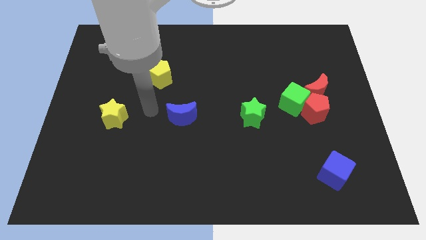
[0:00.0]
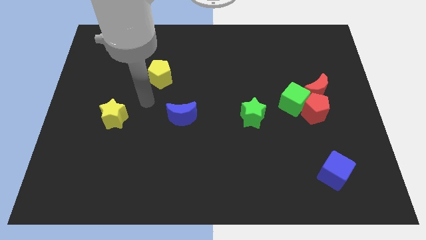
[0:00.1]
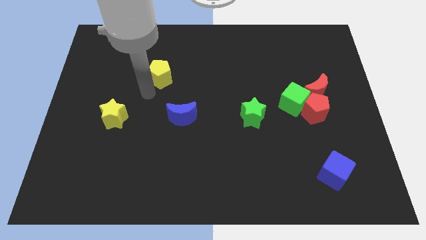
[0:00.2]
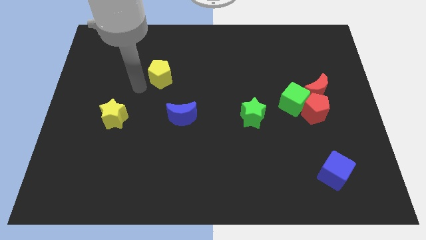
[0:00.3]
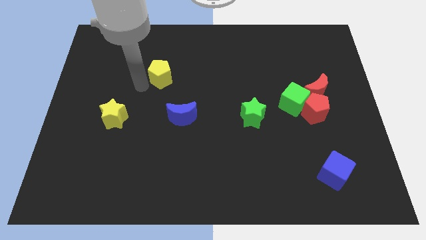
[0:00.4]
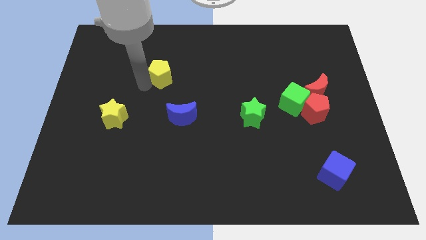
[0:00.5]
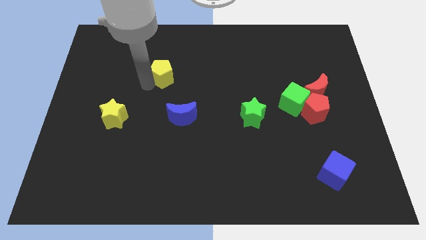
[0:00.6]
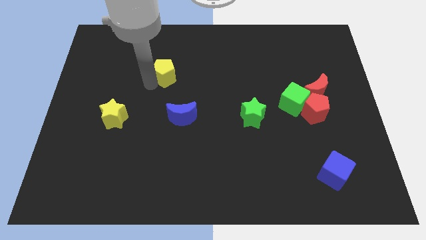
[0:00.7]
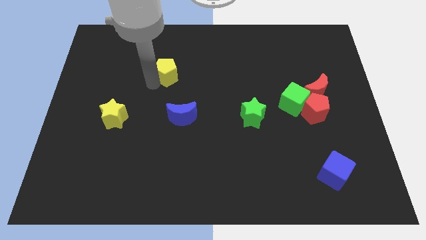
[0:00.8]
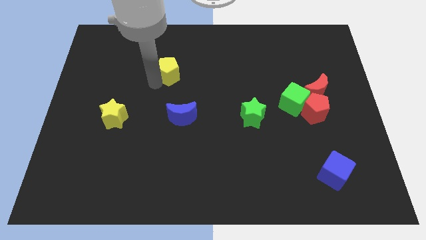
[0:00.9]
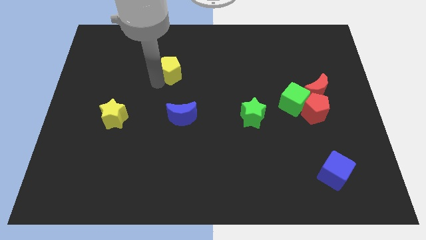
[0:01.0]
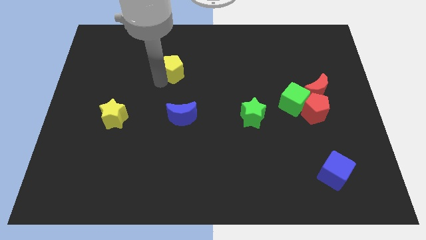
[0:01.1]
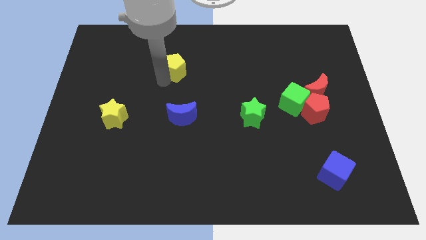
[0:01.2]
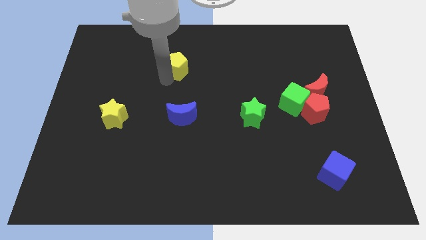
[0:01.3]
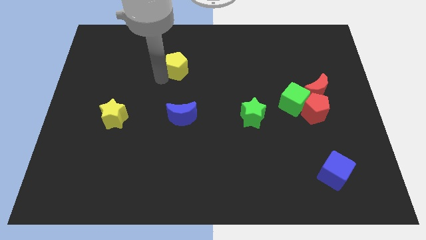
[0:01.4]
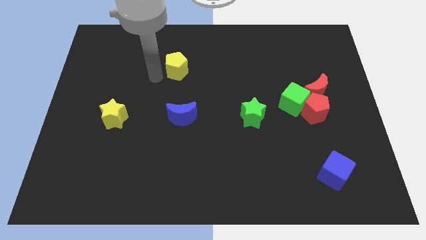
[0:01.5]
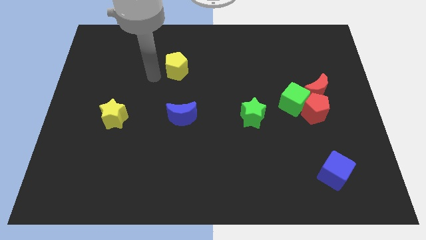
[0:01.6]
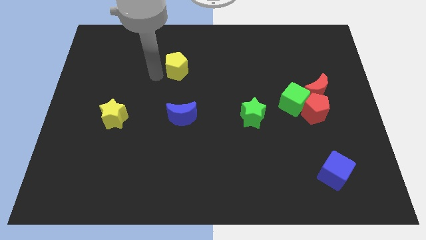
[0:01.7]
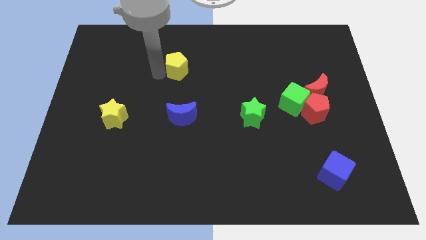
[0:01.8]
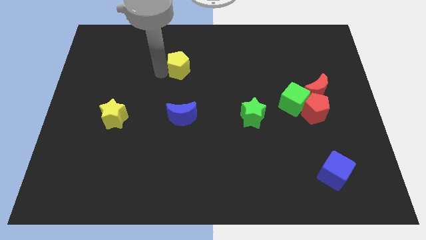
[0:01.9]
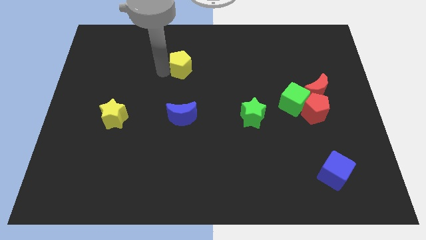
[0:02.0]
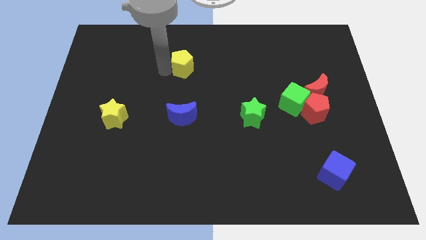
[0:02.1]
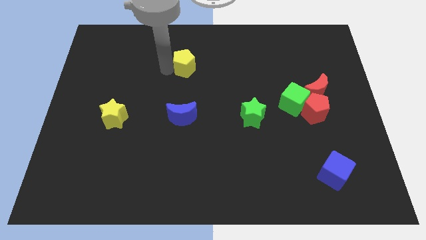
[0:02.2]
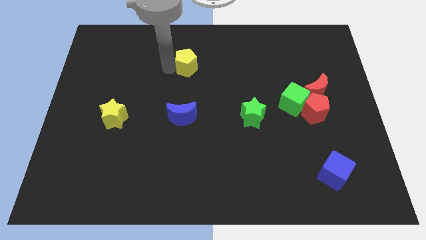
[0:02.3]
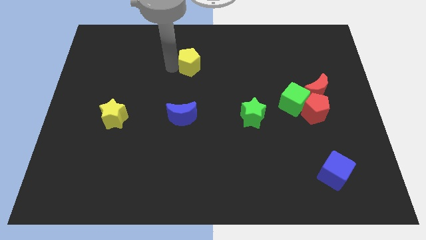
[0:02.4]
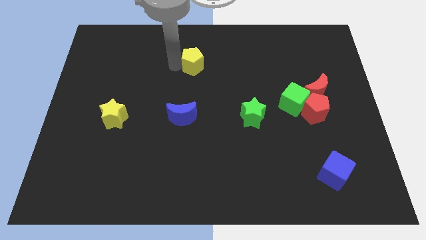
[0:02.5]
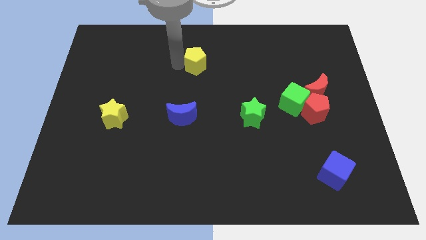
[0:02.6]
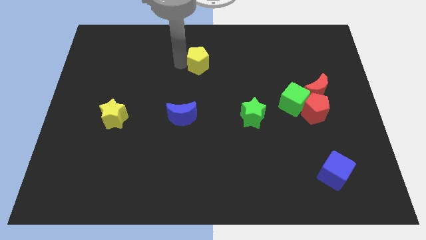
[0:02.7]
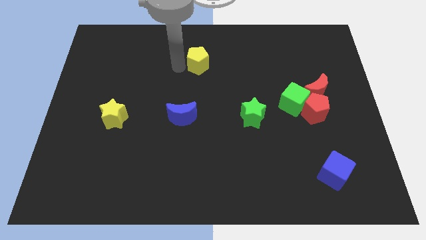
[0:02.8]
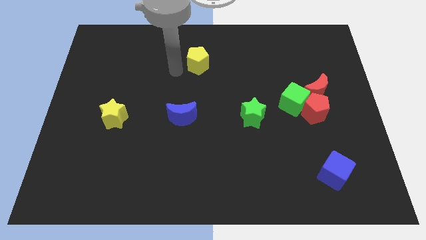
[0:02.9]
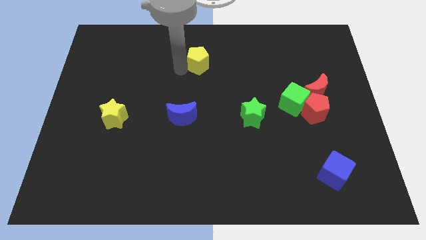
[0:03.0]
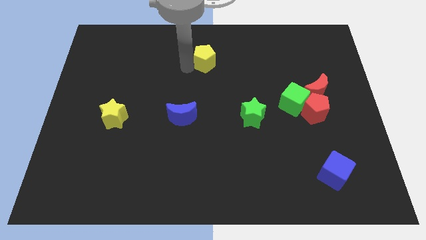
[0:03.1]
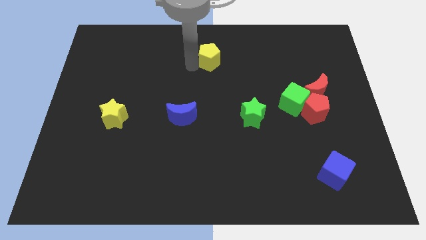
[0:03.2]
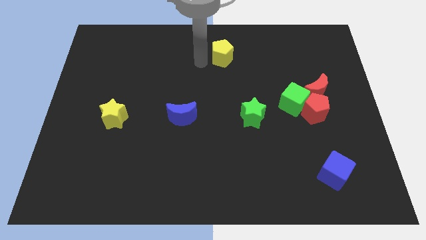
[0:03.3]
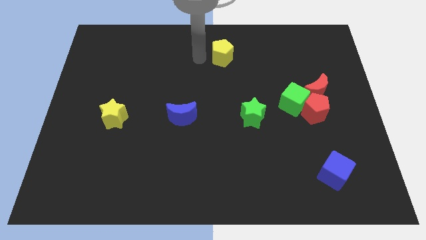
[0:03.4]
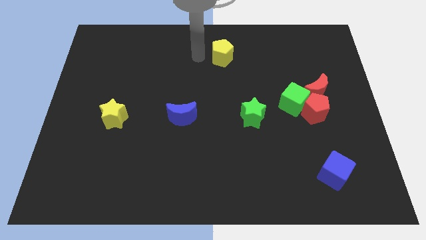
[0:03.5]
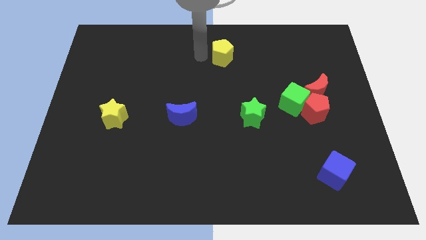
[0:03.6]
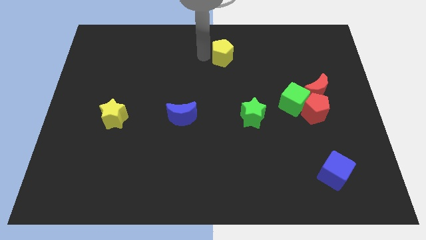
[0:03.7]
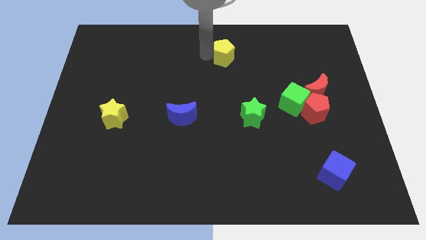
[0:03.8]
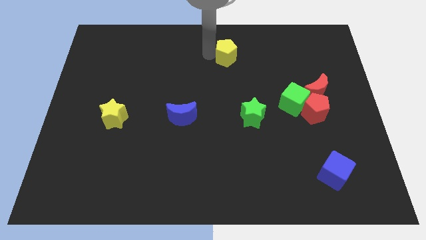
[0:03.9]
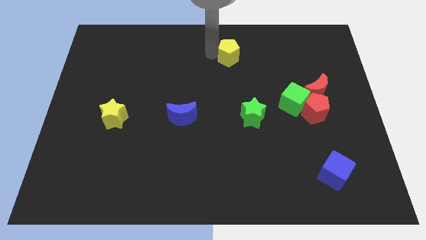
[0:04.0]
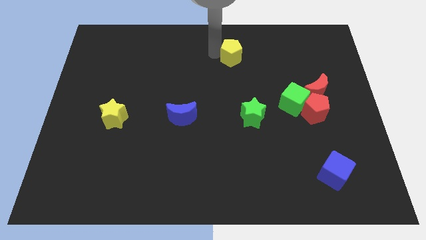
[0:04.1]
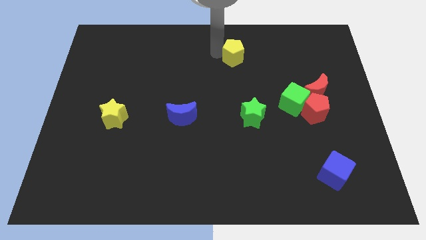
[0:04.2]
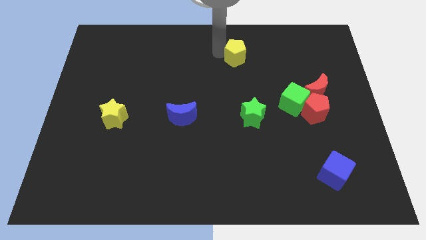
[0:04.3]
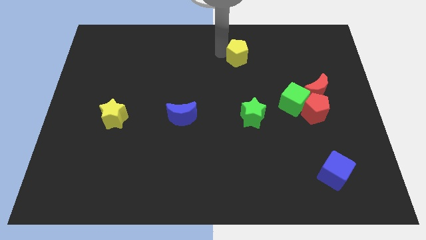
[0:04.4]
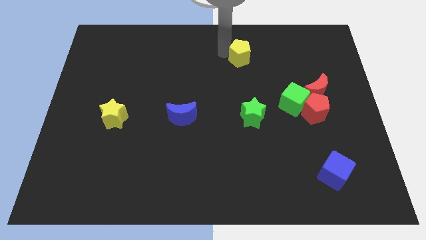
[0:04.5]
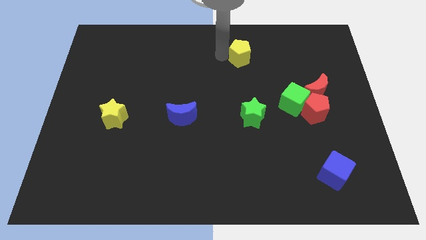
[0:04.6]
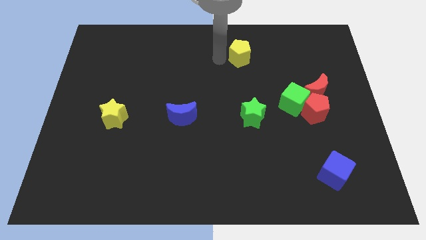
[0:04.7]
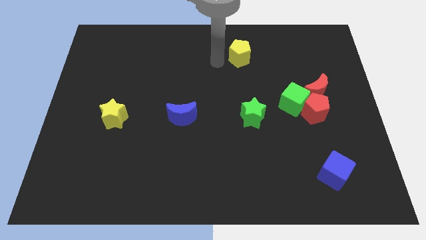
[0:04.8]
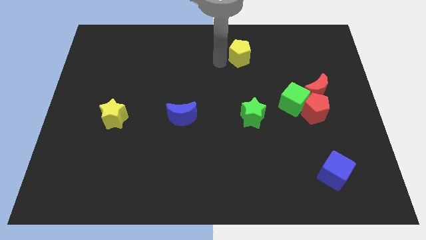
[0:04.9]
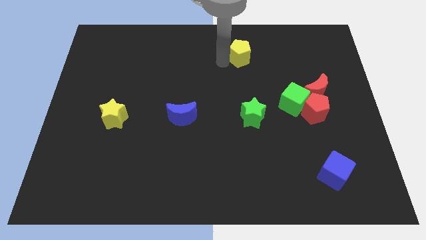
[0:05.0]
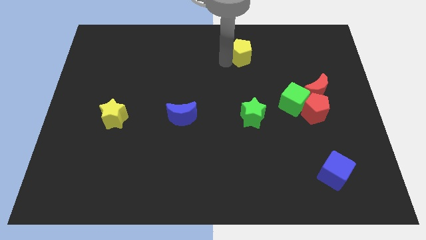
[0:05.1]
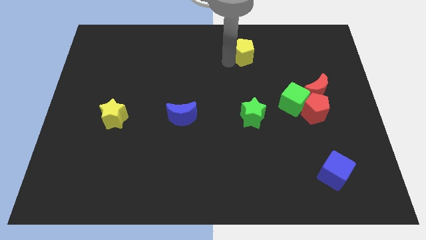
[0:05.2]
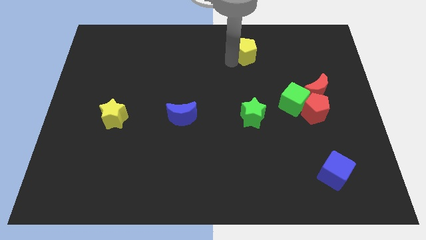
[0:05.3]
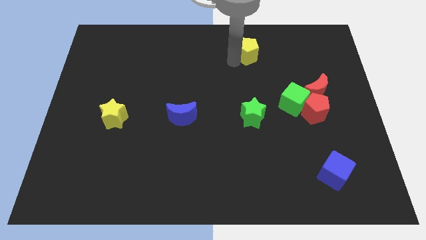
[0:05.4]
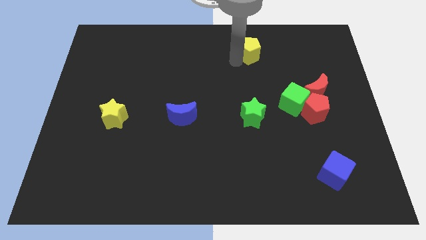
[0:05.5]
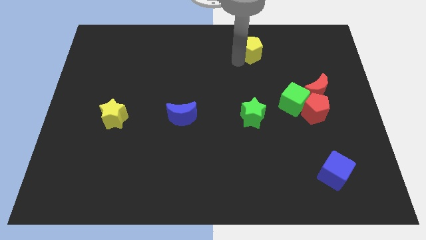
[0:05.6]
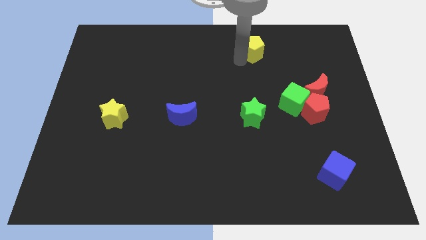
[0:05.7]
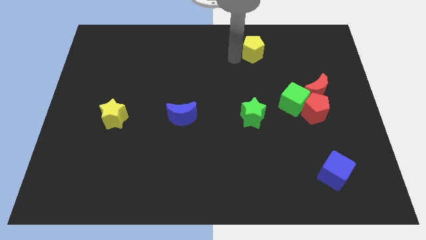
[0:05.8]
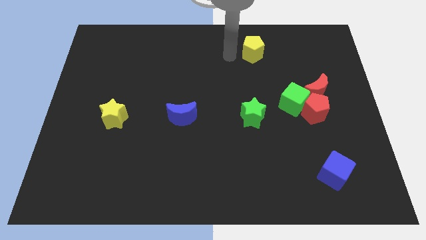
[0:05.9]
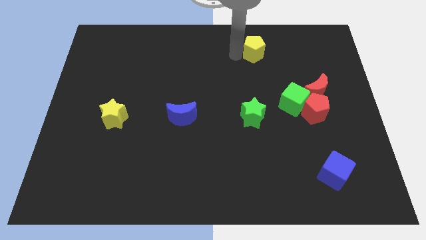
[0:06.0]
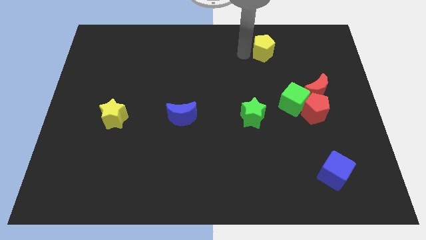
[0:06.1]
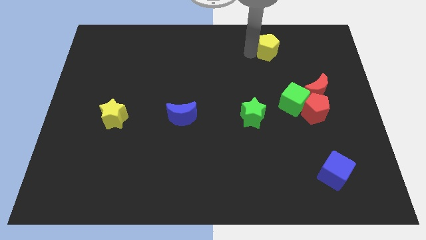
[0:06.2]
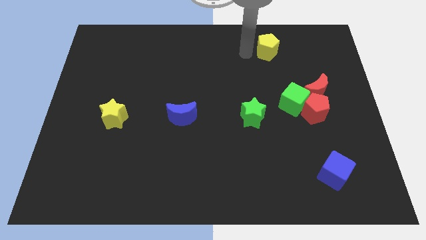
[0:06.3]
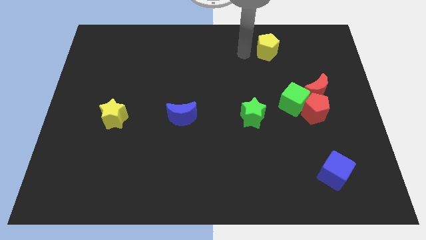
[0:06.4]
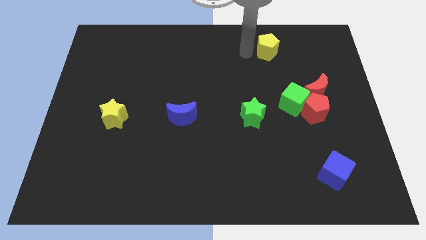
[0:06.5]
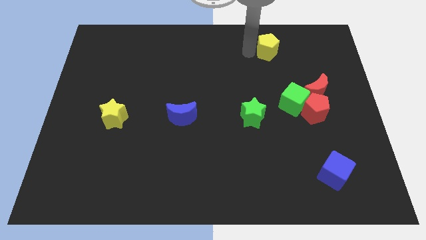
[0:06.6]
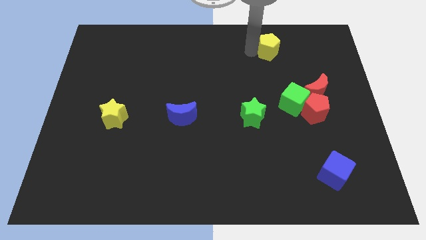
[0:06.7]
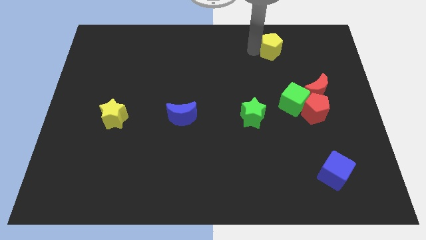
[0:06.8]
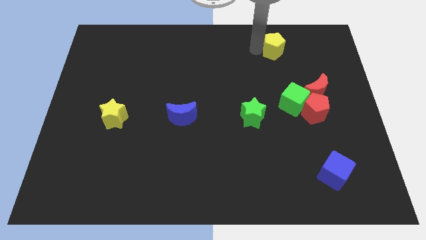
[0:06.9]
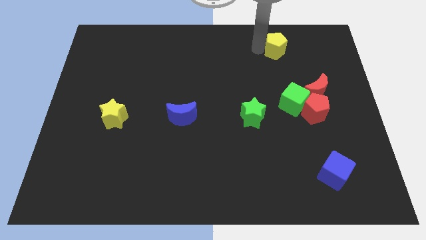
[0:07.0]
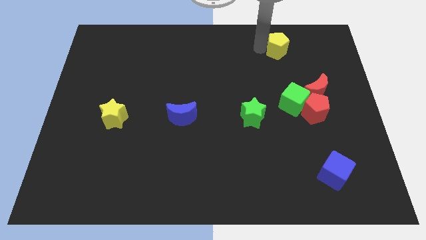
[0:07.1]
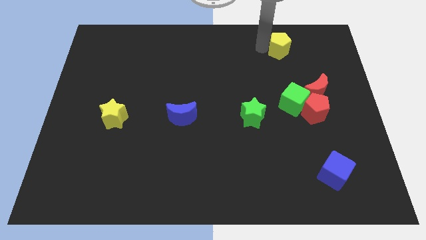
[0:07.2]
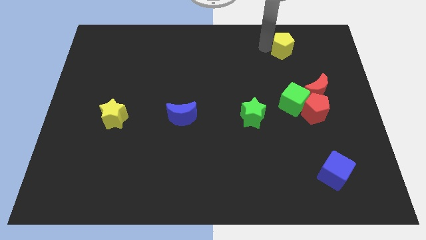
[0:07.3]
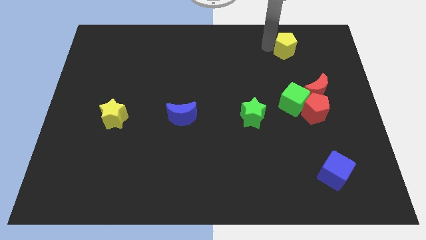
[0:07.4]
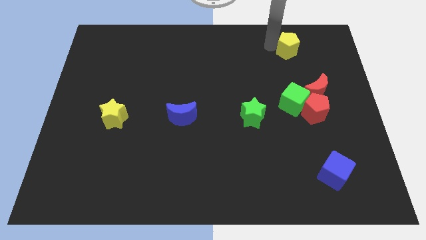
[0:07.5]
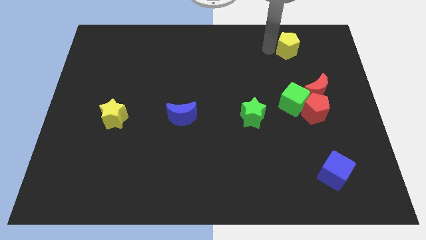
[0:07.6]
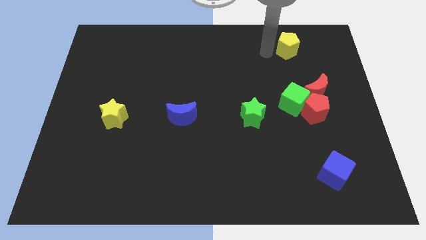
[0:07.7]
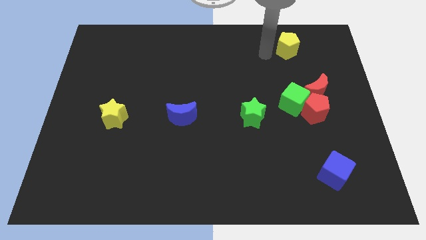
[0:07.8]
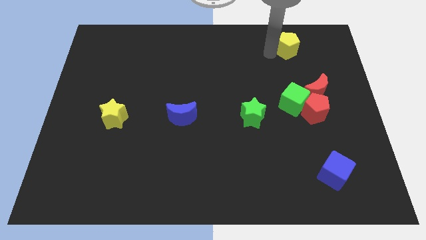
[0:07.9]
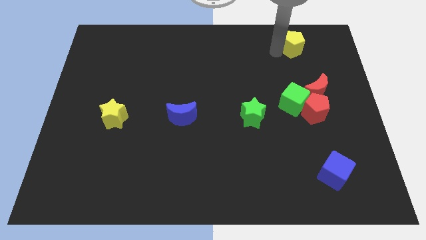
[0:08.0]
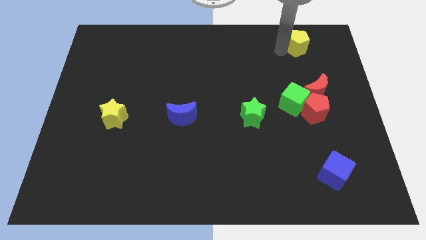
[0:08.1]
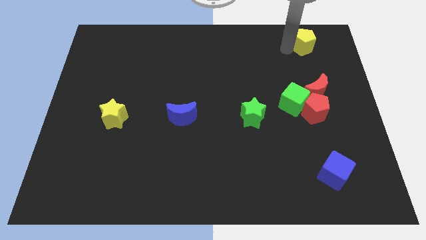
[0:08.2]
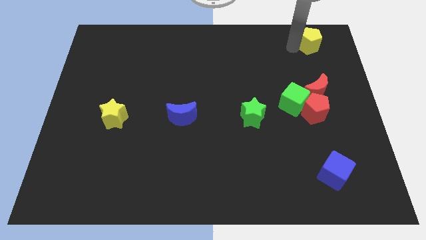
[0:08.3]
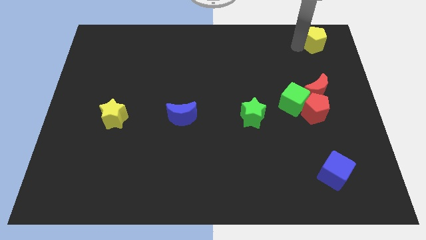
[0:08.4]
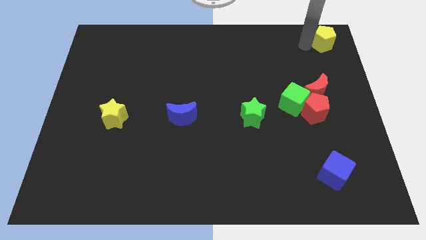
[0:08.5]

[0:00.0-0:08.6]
slide the yellow pentagon to the top right of the board
